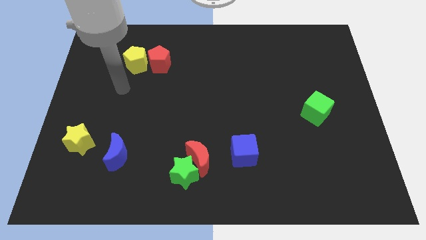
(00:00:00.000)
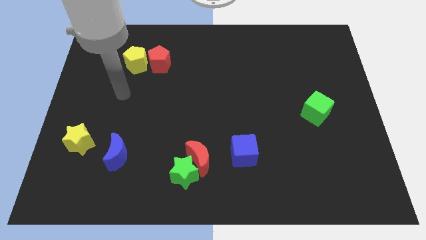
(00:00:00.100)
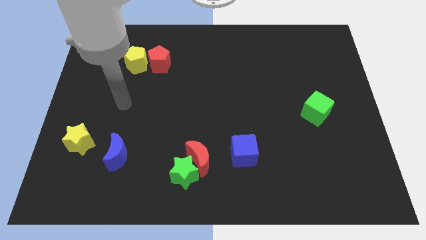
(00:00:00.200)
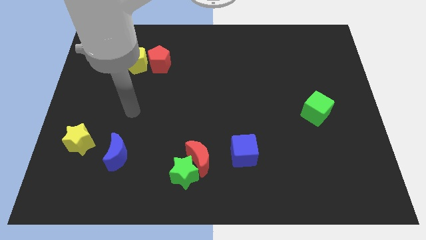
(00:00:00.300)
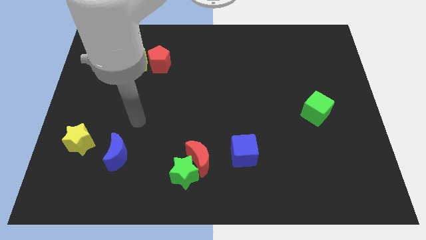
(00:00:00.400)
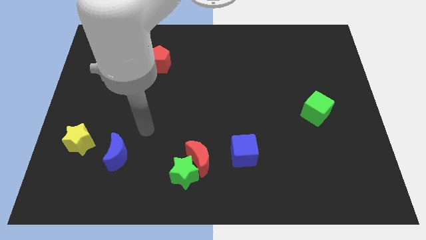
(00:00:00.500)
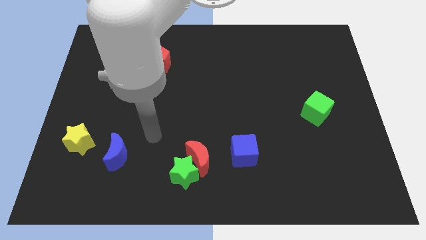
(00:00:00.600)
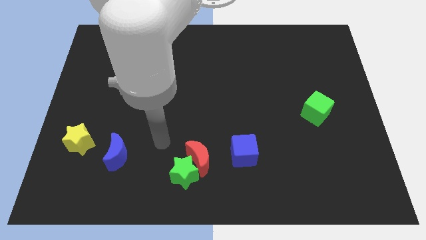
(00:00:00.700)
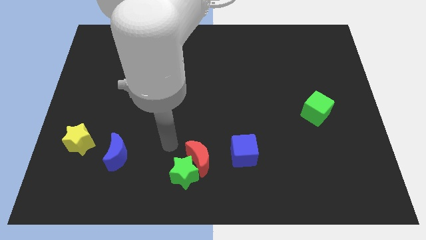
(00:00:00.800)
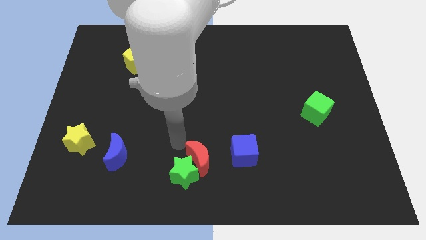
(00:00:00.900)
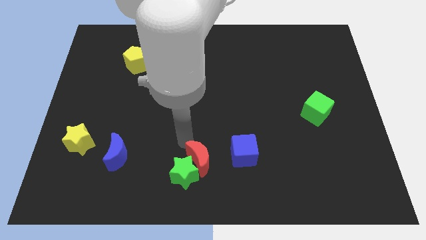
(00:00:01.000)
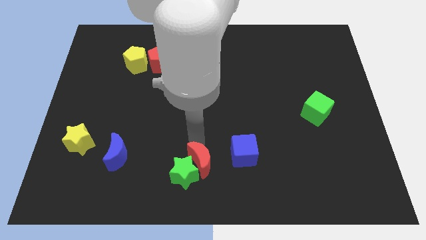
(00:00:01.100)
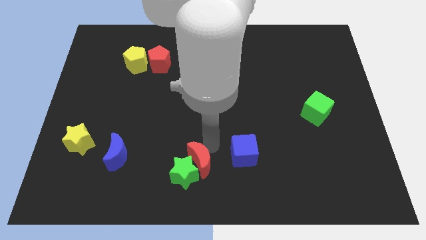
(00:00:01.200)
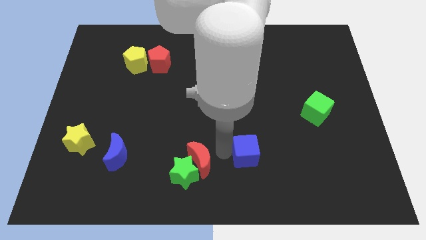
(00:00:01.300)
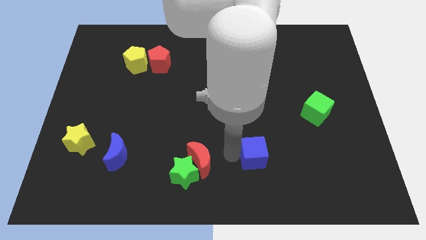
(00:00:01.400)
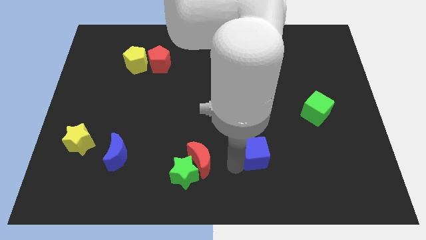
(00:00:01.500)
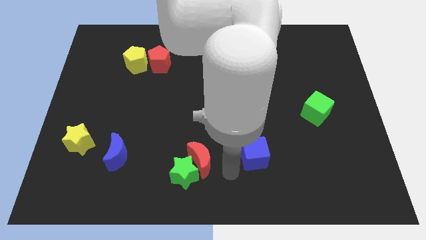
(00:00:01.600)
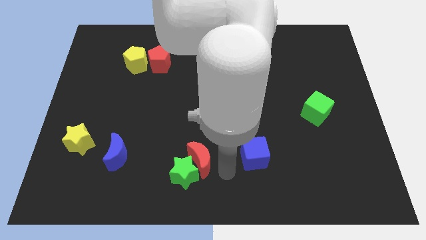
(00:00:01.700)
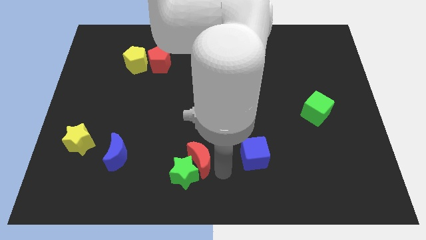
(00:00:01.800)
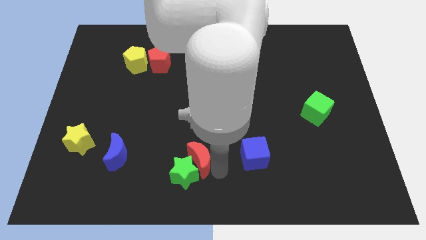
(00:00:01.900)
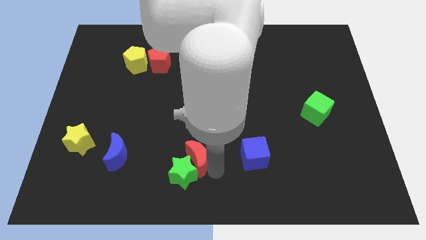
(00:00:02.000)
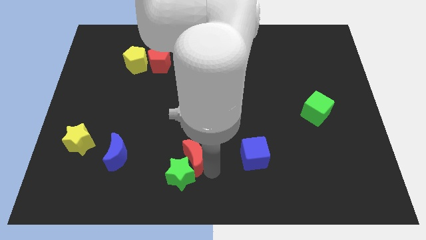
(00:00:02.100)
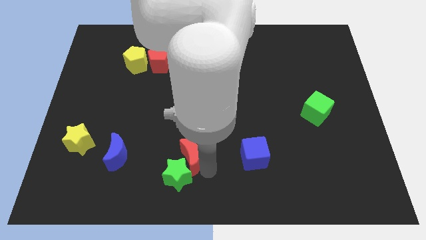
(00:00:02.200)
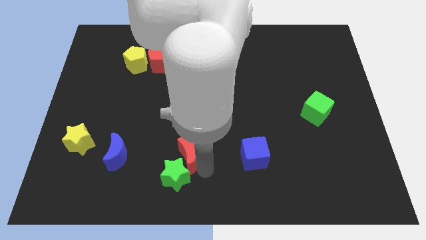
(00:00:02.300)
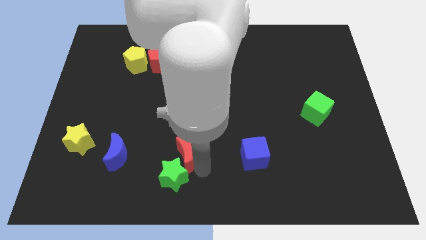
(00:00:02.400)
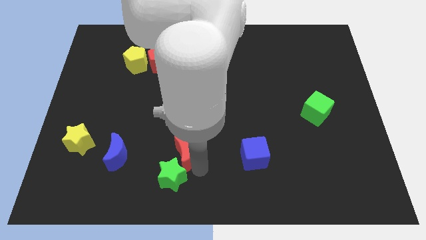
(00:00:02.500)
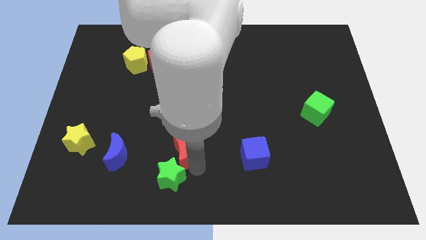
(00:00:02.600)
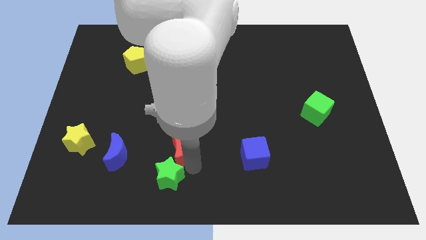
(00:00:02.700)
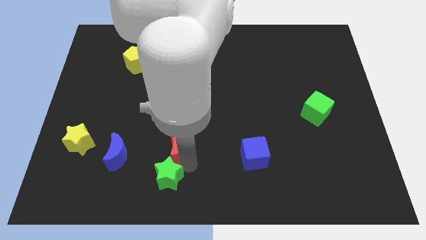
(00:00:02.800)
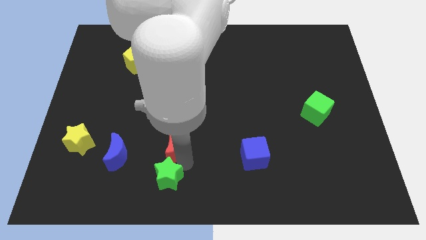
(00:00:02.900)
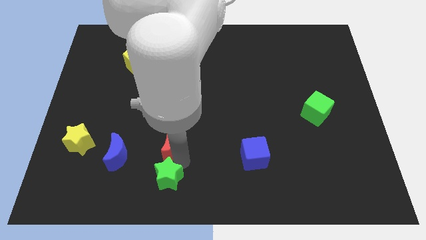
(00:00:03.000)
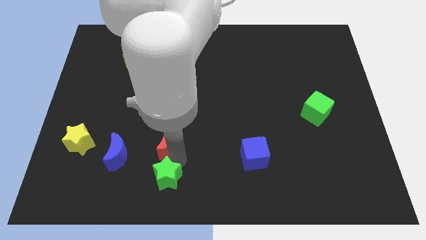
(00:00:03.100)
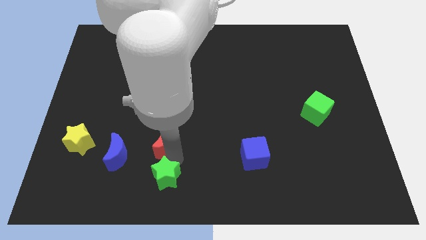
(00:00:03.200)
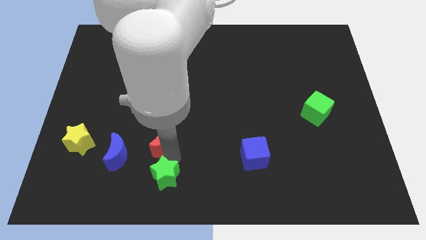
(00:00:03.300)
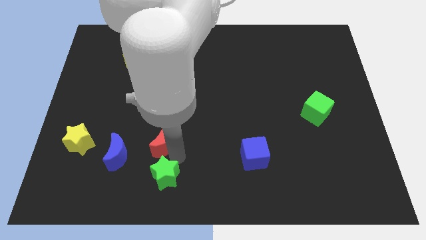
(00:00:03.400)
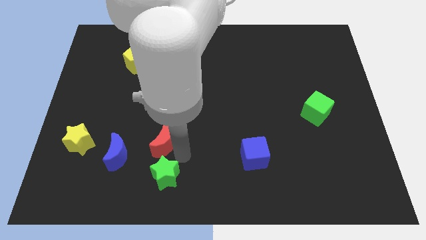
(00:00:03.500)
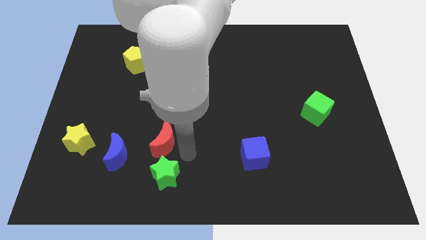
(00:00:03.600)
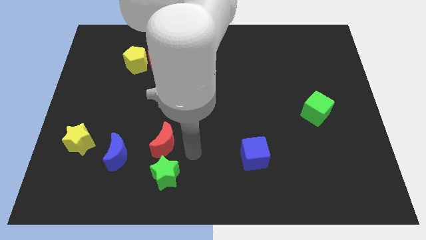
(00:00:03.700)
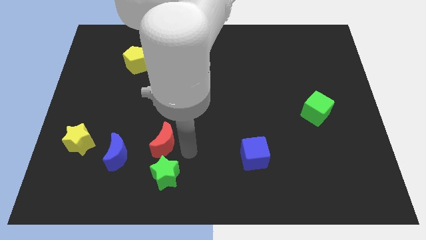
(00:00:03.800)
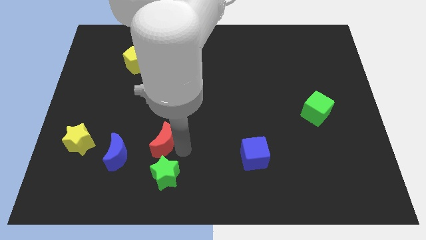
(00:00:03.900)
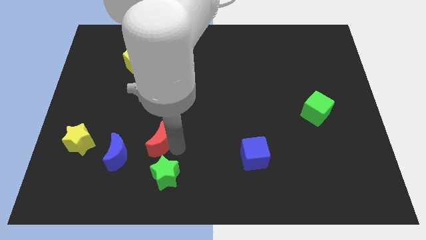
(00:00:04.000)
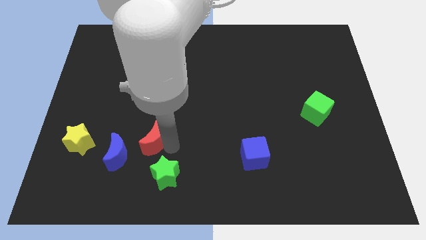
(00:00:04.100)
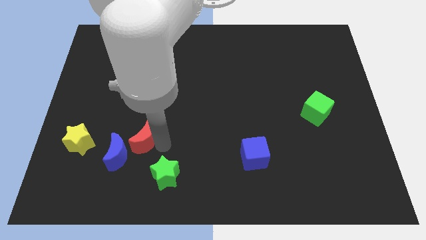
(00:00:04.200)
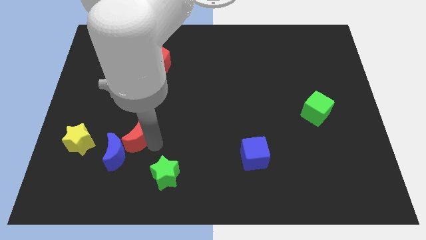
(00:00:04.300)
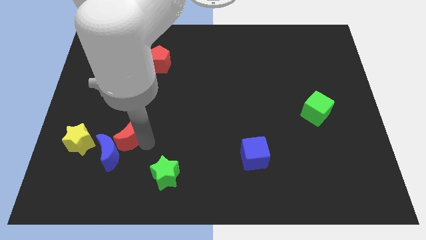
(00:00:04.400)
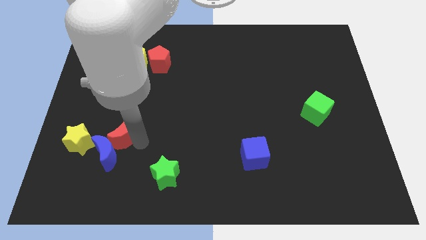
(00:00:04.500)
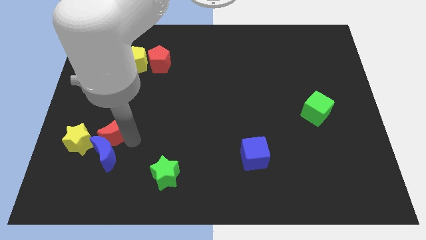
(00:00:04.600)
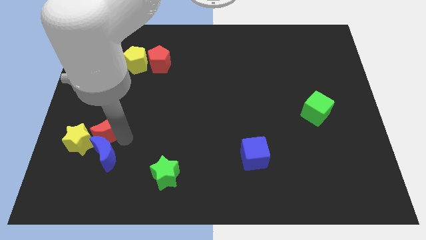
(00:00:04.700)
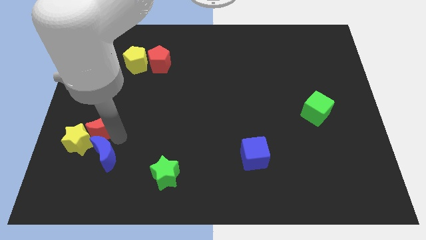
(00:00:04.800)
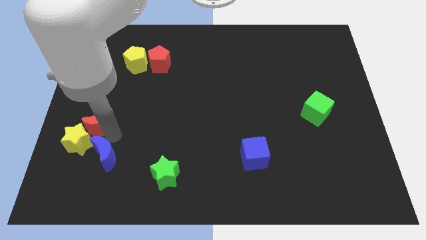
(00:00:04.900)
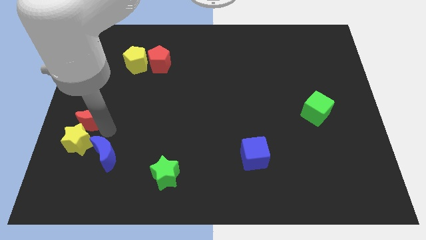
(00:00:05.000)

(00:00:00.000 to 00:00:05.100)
put the red moon to the center left
